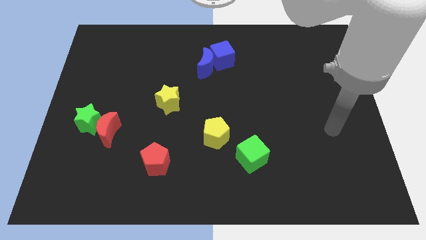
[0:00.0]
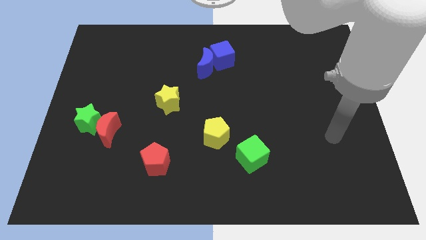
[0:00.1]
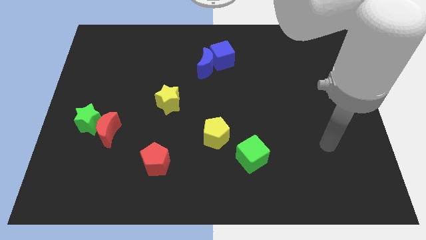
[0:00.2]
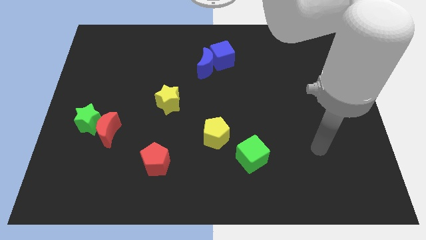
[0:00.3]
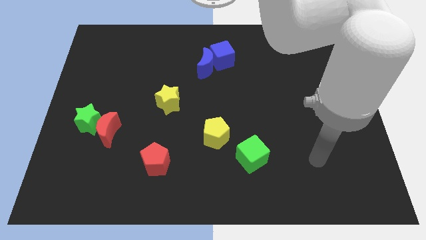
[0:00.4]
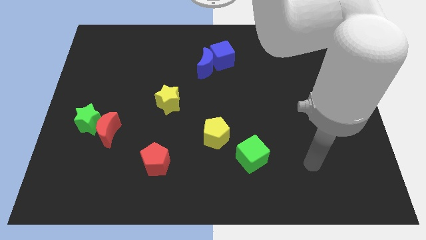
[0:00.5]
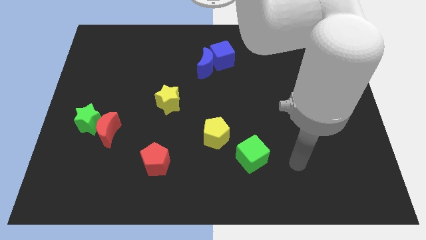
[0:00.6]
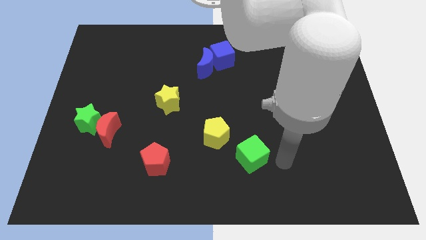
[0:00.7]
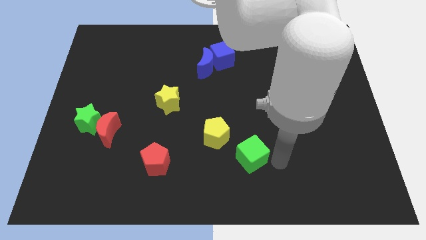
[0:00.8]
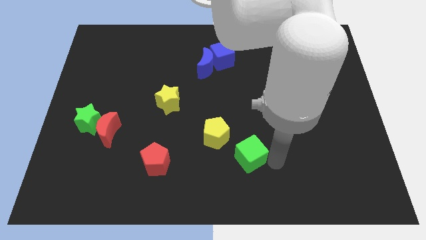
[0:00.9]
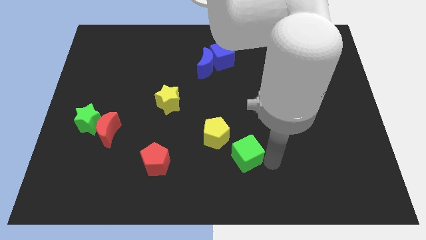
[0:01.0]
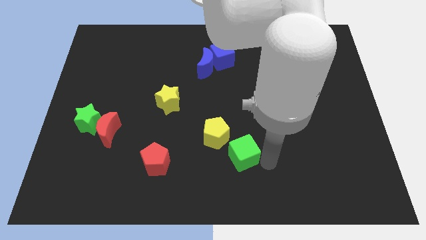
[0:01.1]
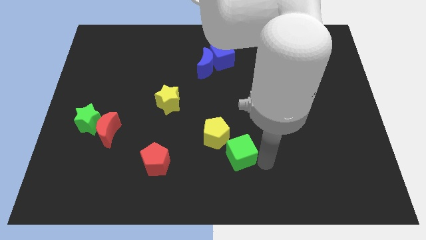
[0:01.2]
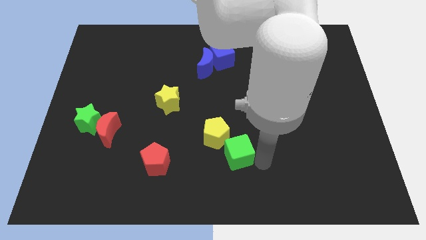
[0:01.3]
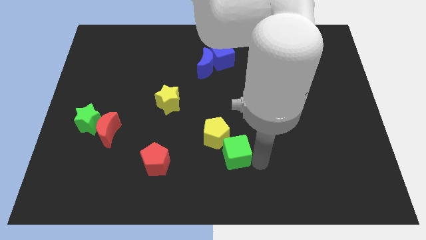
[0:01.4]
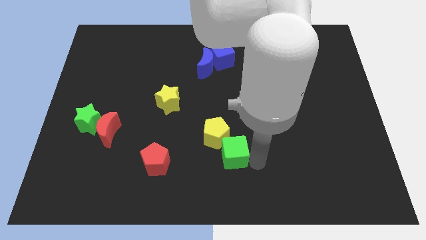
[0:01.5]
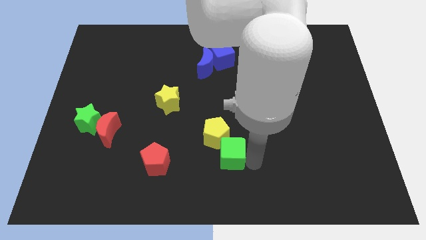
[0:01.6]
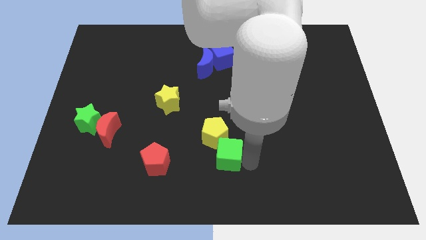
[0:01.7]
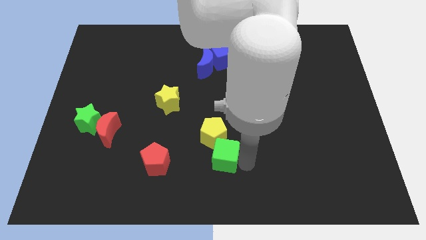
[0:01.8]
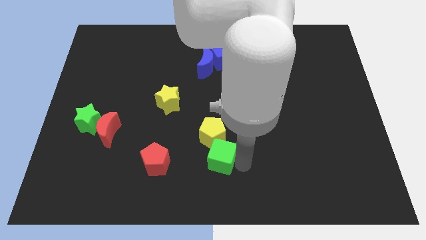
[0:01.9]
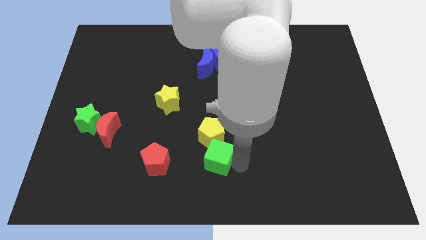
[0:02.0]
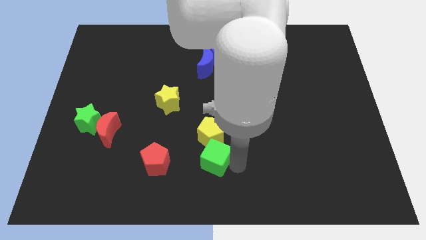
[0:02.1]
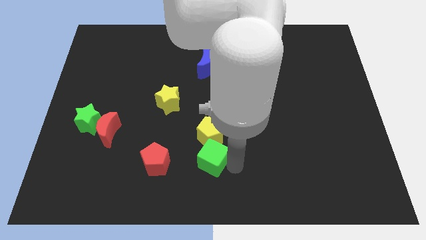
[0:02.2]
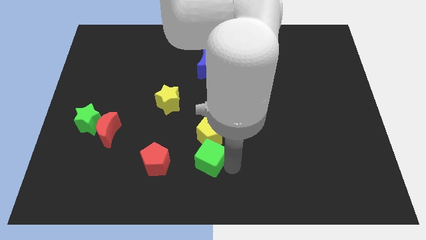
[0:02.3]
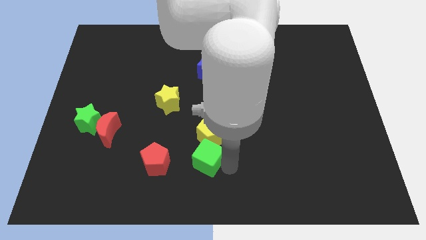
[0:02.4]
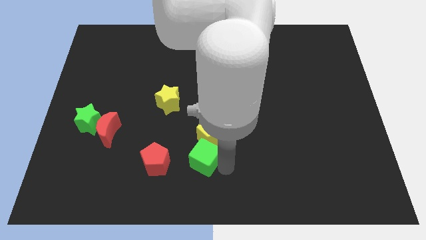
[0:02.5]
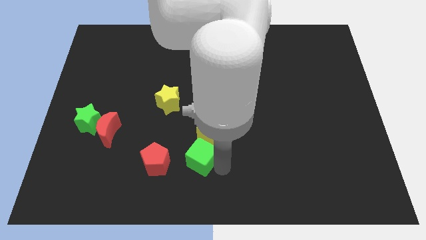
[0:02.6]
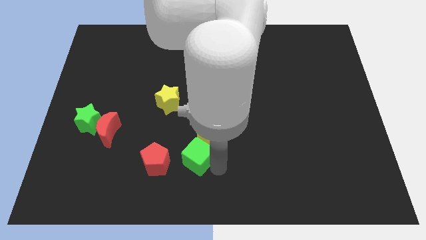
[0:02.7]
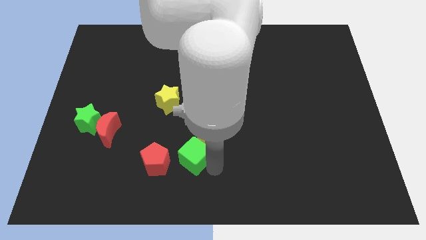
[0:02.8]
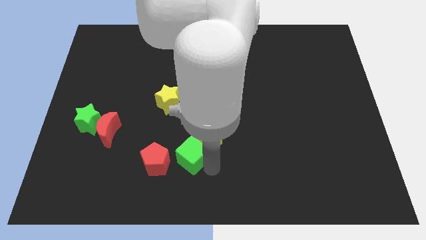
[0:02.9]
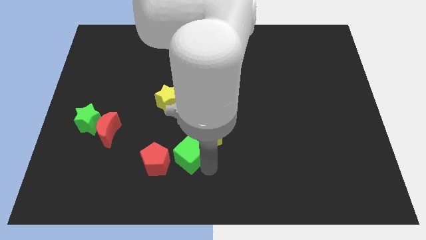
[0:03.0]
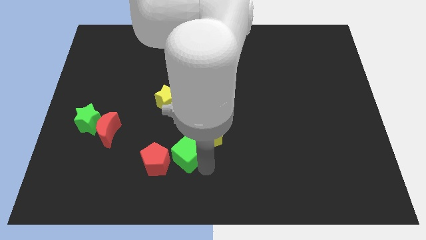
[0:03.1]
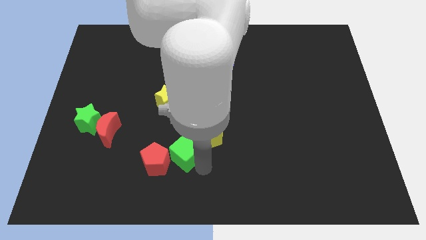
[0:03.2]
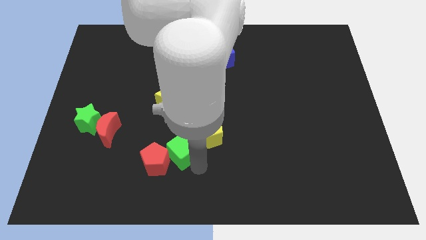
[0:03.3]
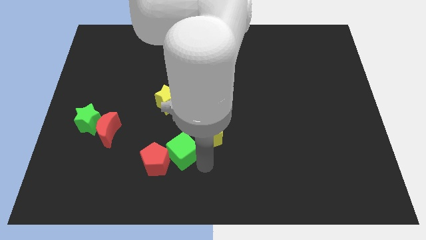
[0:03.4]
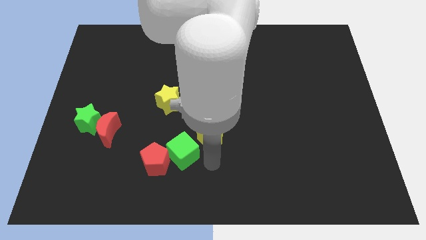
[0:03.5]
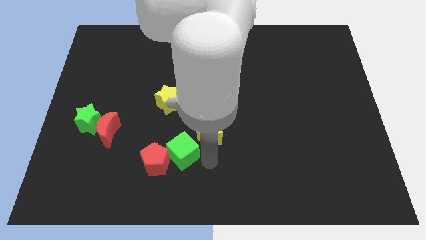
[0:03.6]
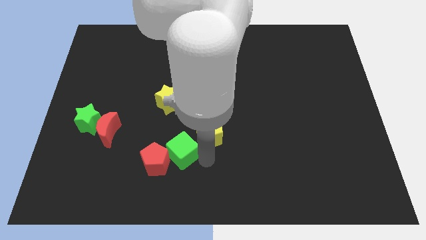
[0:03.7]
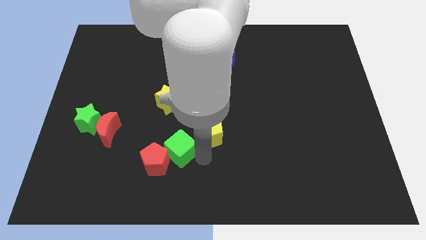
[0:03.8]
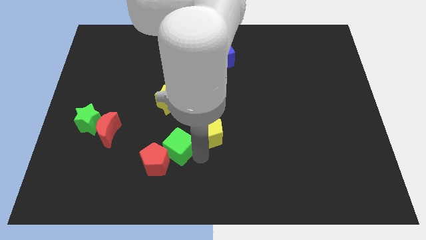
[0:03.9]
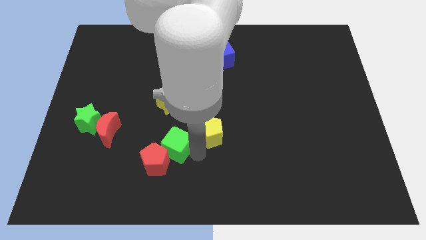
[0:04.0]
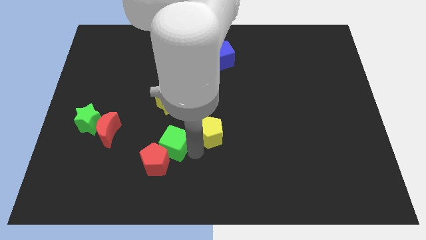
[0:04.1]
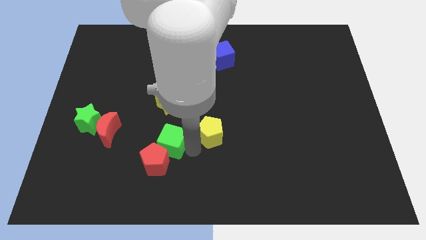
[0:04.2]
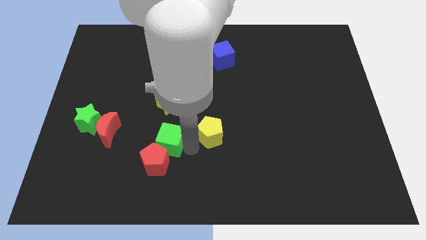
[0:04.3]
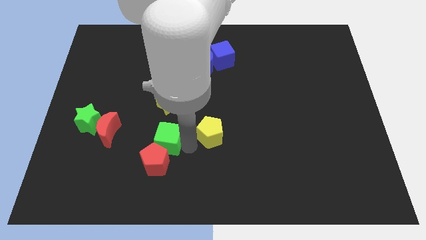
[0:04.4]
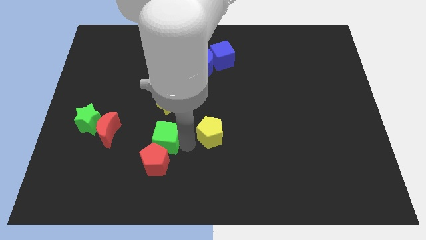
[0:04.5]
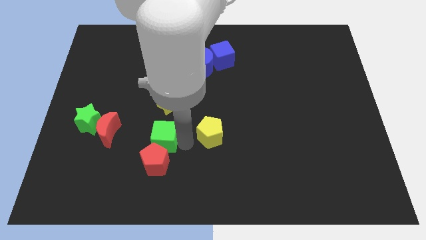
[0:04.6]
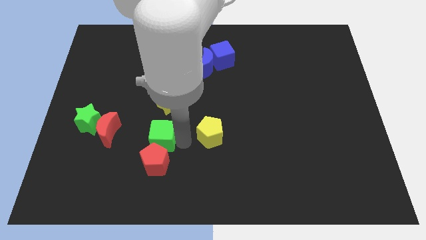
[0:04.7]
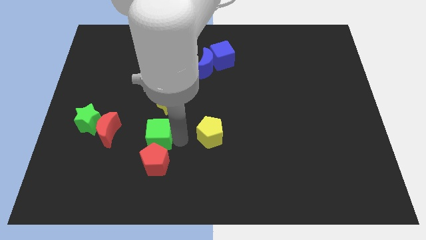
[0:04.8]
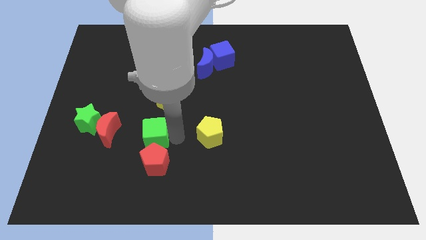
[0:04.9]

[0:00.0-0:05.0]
slide the green cube left

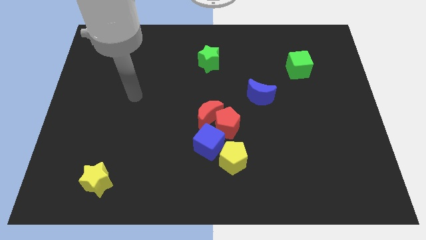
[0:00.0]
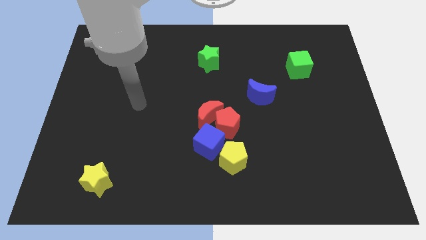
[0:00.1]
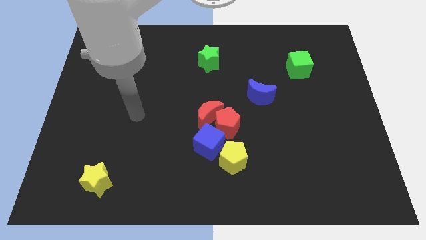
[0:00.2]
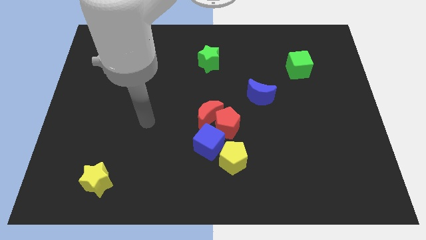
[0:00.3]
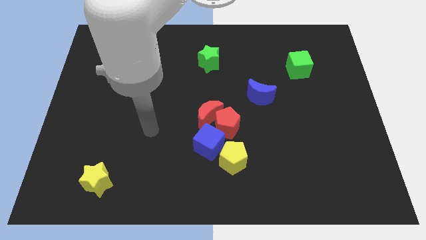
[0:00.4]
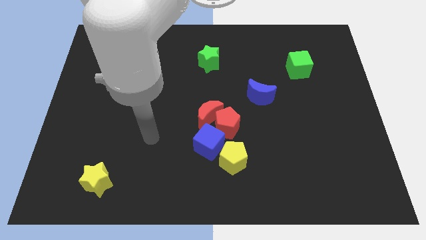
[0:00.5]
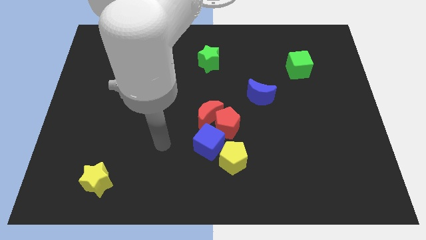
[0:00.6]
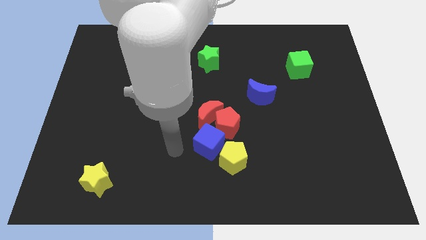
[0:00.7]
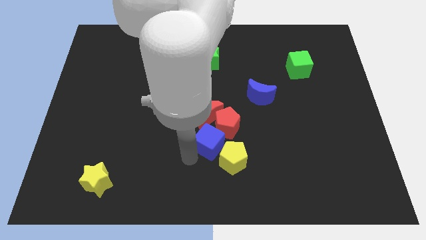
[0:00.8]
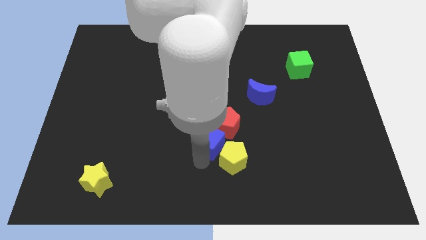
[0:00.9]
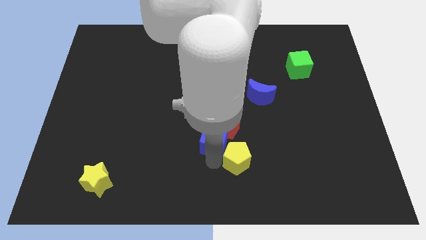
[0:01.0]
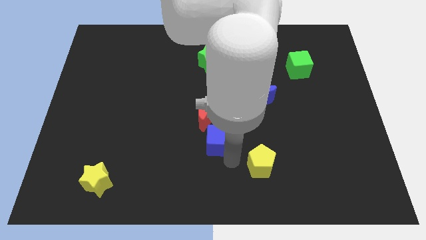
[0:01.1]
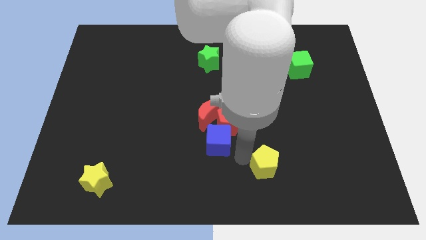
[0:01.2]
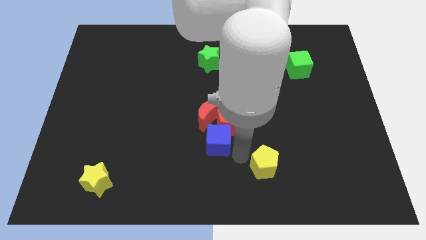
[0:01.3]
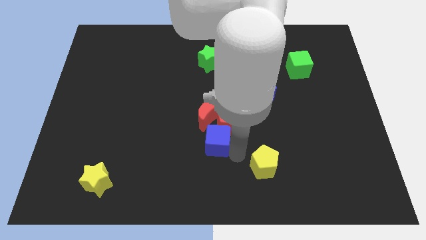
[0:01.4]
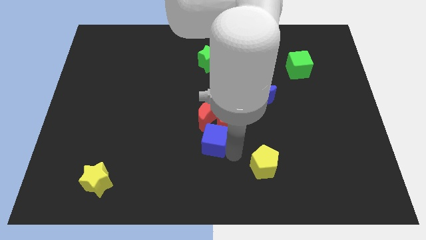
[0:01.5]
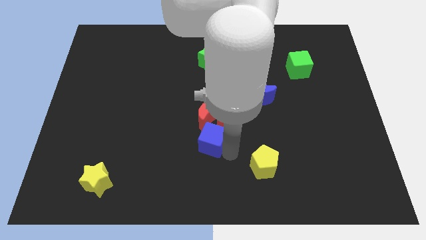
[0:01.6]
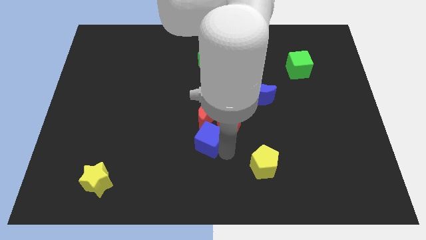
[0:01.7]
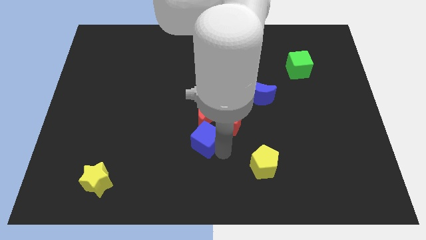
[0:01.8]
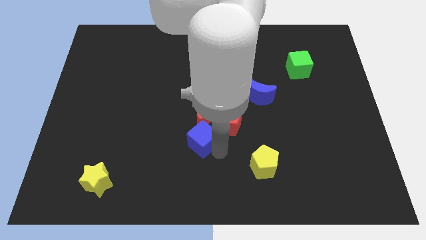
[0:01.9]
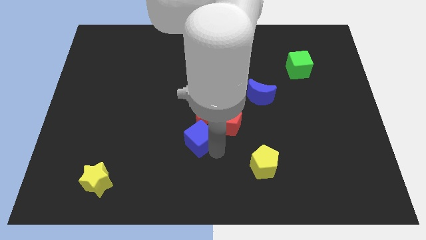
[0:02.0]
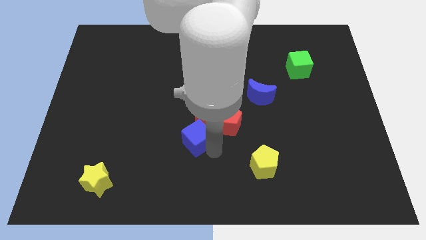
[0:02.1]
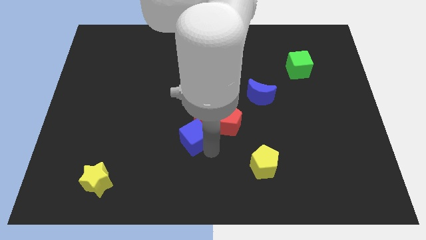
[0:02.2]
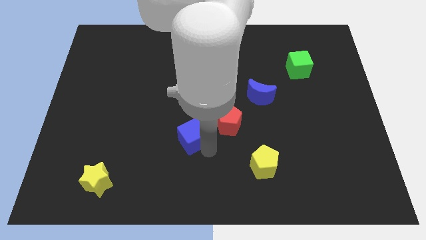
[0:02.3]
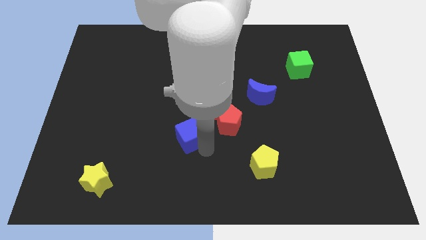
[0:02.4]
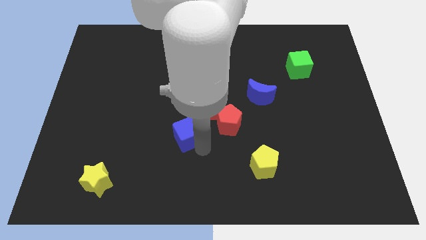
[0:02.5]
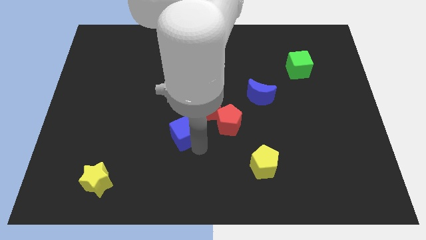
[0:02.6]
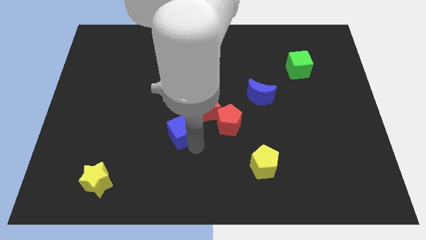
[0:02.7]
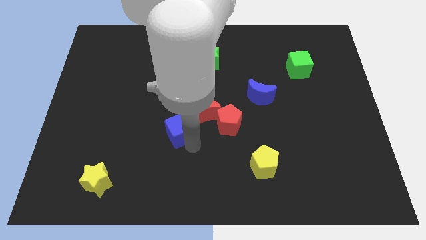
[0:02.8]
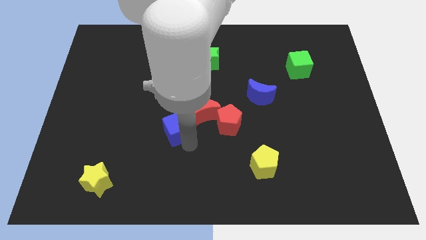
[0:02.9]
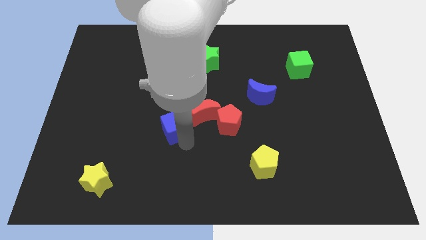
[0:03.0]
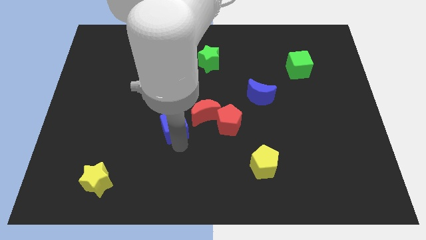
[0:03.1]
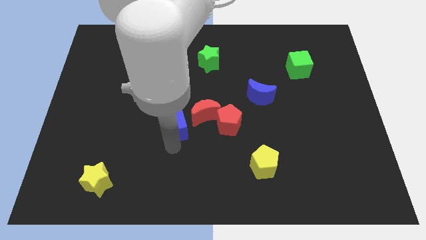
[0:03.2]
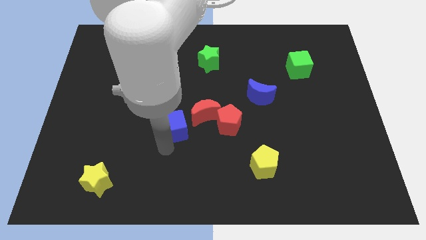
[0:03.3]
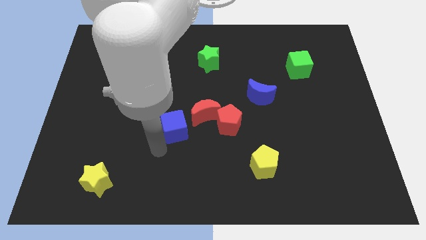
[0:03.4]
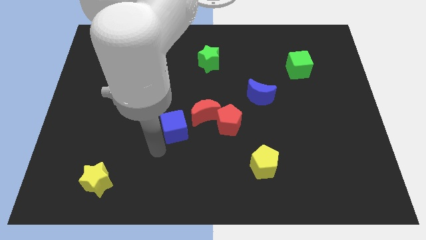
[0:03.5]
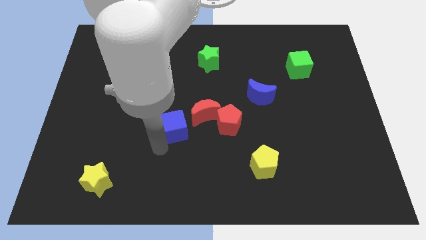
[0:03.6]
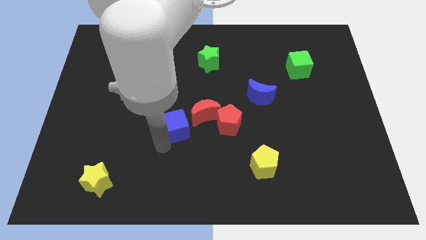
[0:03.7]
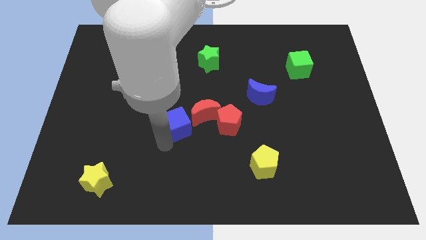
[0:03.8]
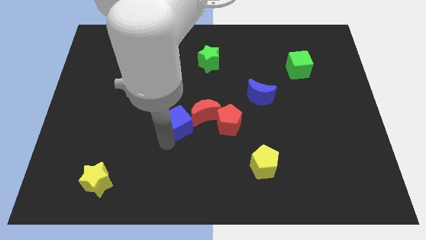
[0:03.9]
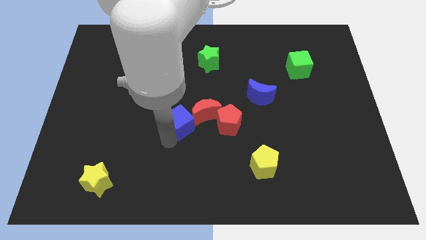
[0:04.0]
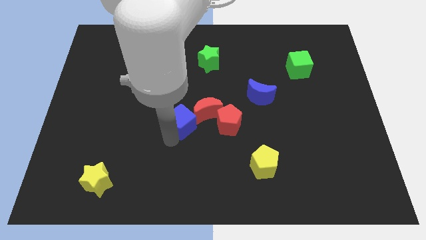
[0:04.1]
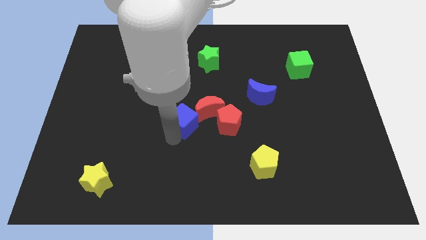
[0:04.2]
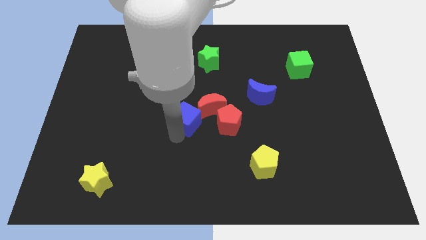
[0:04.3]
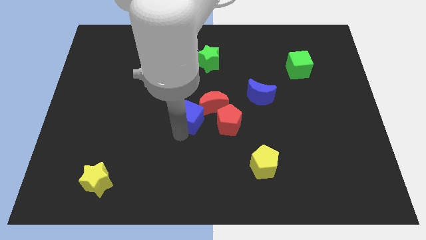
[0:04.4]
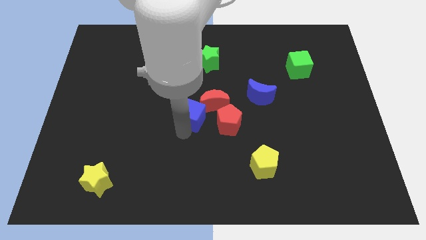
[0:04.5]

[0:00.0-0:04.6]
slightly slide the blue cube upwards
